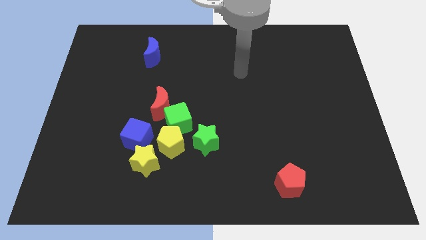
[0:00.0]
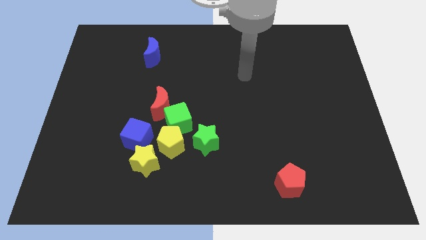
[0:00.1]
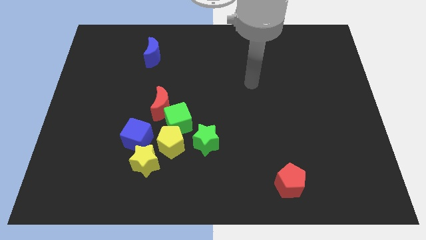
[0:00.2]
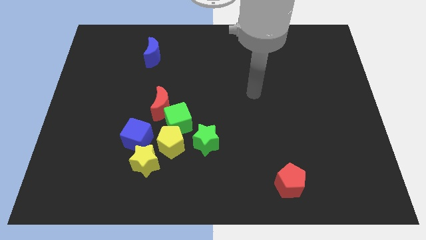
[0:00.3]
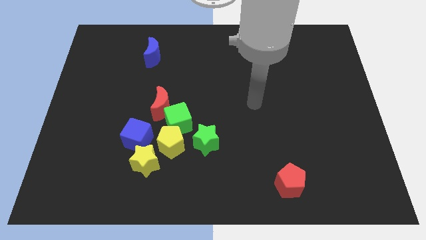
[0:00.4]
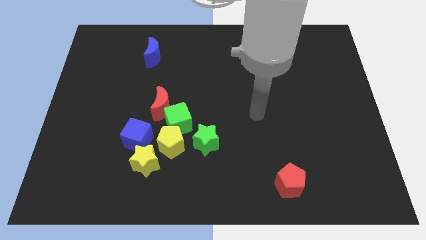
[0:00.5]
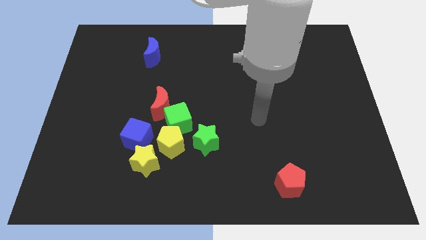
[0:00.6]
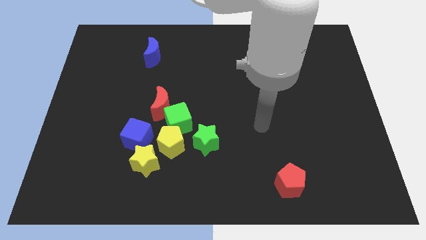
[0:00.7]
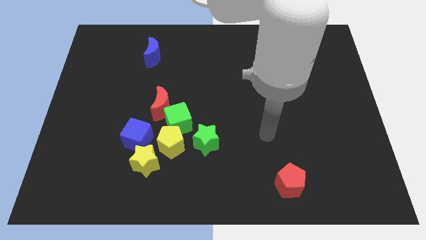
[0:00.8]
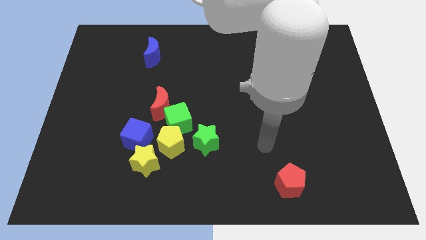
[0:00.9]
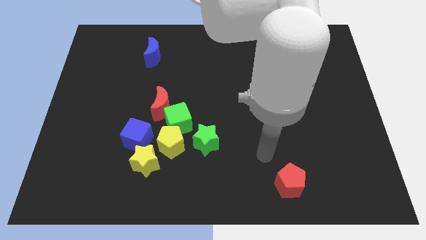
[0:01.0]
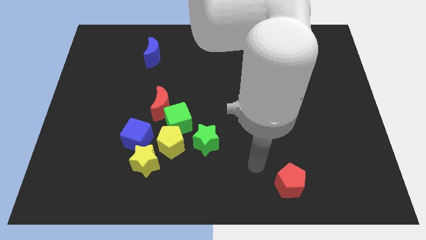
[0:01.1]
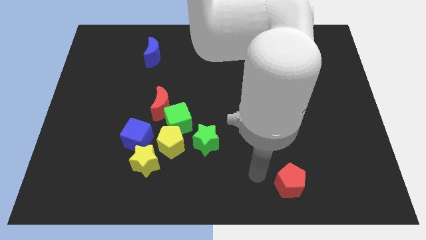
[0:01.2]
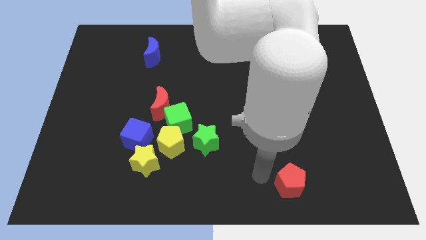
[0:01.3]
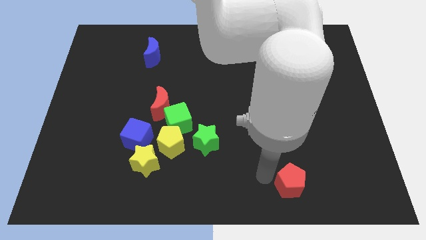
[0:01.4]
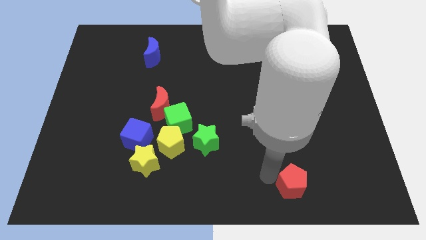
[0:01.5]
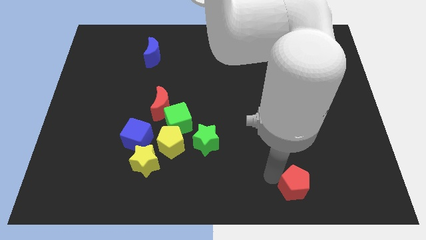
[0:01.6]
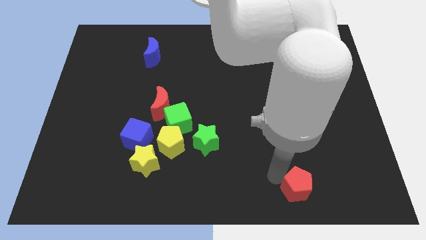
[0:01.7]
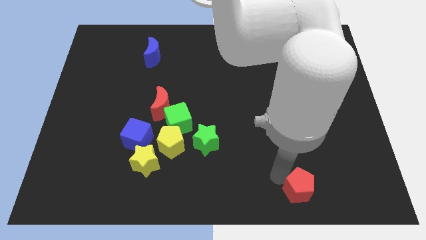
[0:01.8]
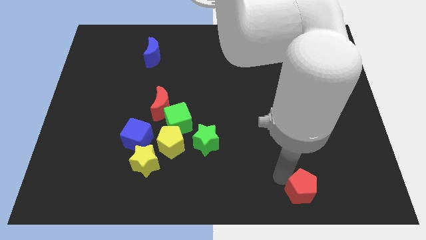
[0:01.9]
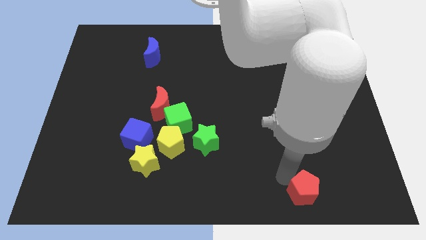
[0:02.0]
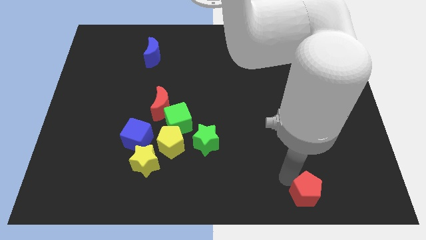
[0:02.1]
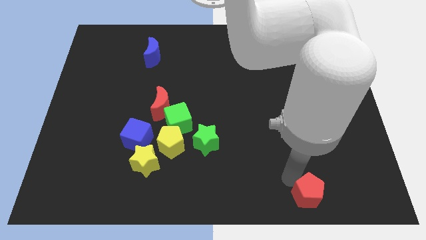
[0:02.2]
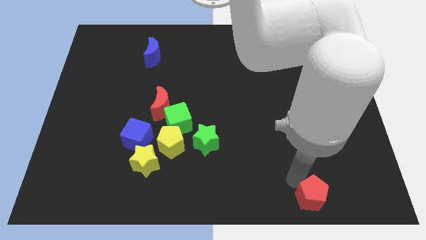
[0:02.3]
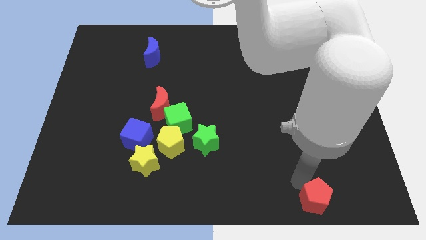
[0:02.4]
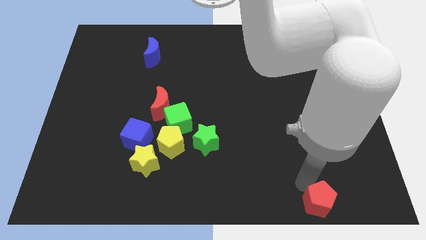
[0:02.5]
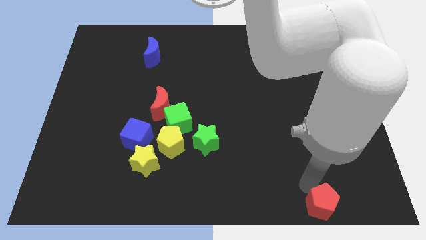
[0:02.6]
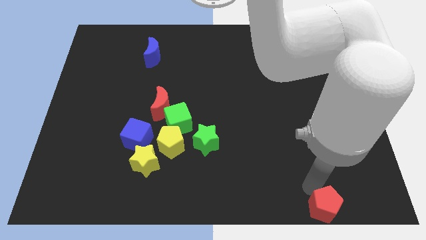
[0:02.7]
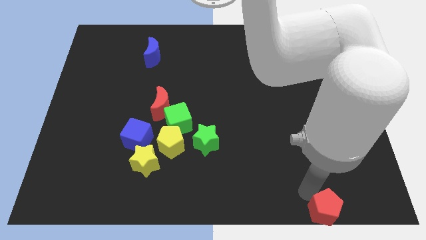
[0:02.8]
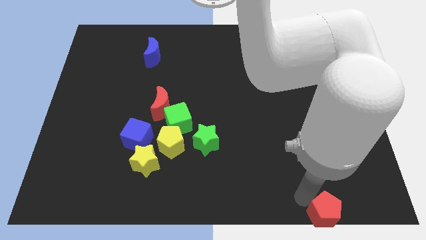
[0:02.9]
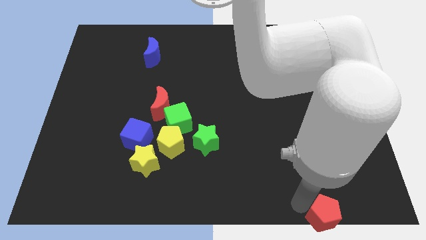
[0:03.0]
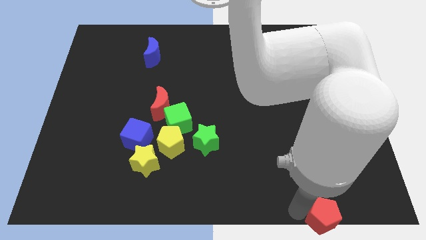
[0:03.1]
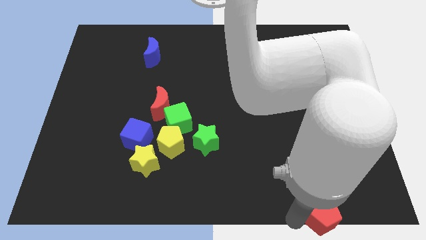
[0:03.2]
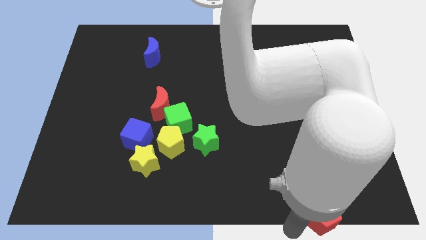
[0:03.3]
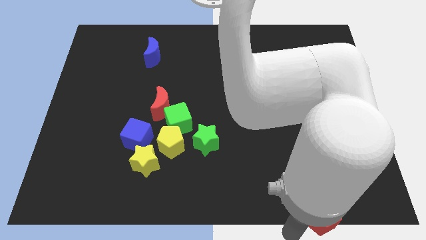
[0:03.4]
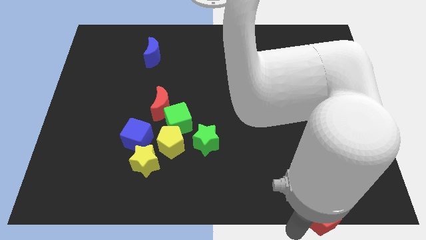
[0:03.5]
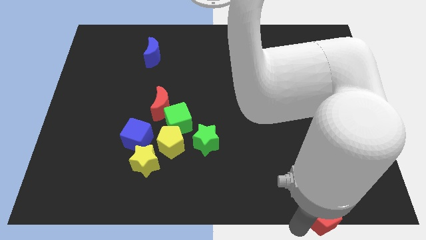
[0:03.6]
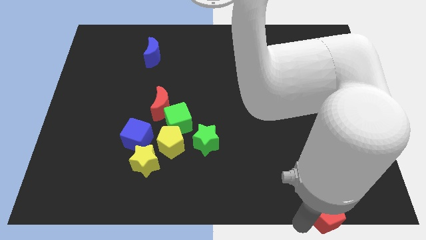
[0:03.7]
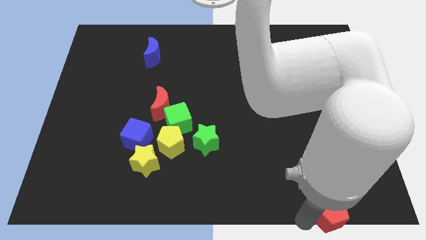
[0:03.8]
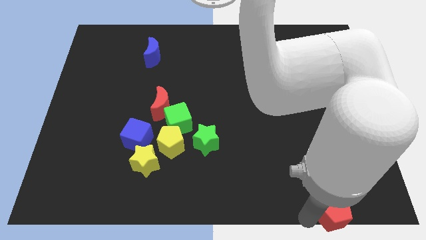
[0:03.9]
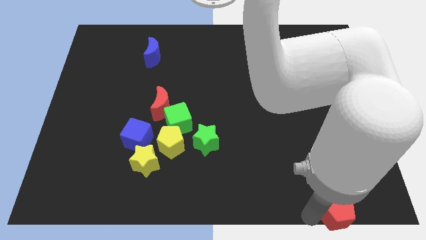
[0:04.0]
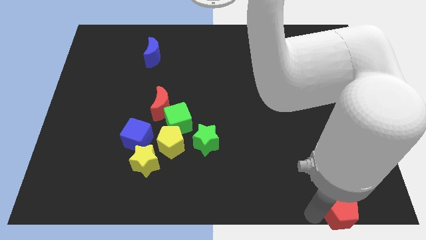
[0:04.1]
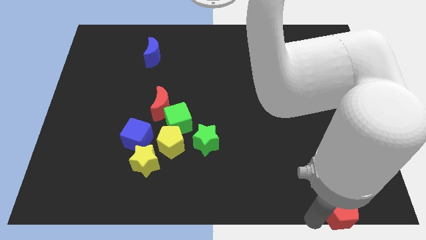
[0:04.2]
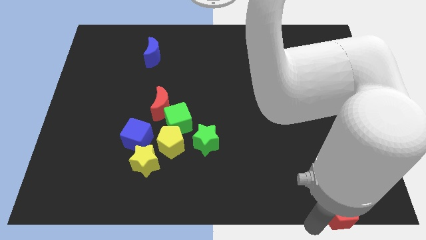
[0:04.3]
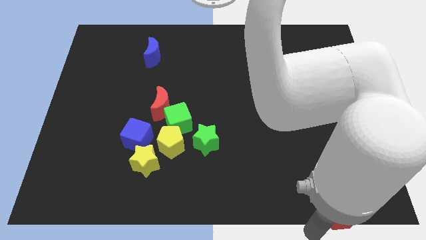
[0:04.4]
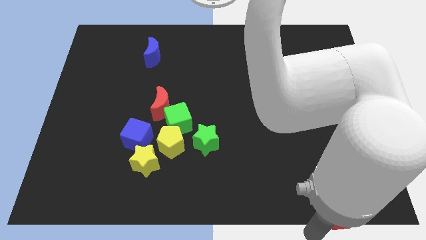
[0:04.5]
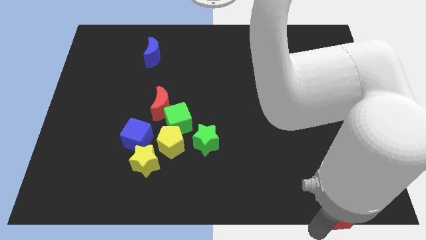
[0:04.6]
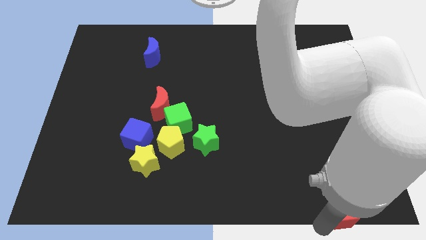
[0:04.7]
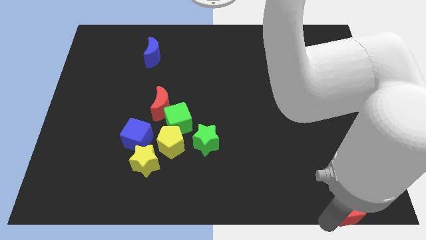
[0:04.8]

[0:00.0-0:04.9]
put the red pentagon to the bottom right of the board

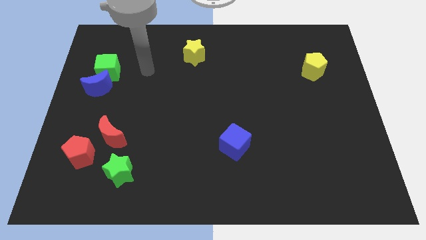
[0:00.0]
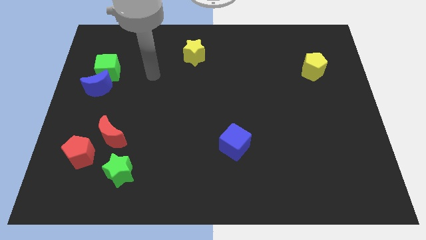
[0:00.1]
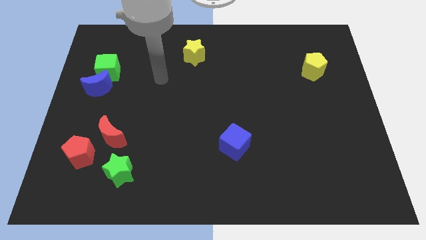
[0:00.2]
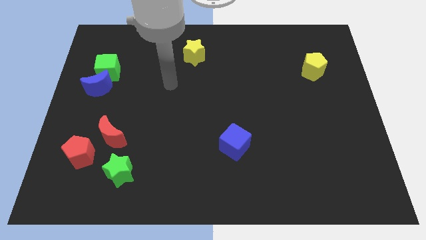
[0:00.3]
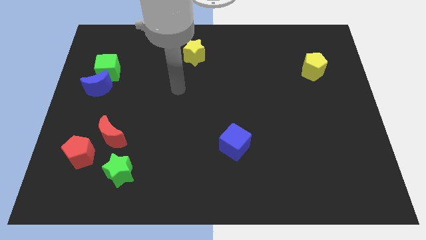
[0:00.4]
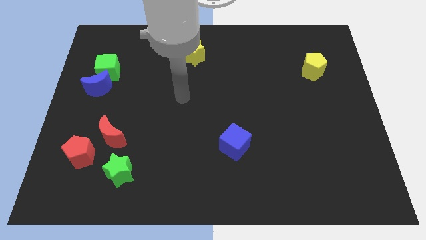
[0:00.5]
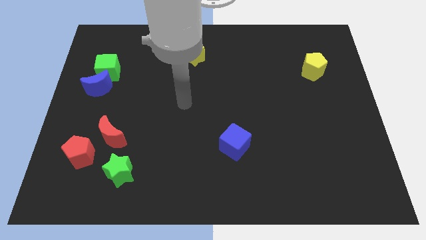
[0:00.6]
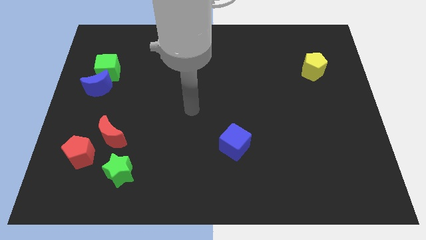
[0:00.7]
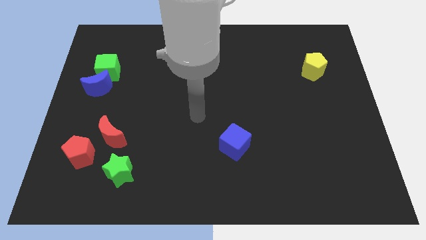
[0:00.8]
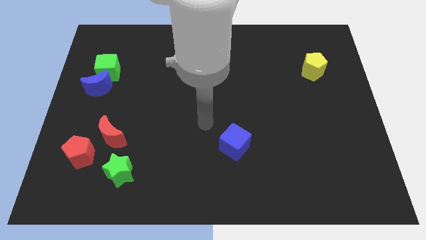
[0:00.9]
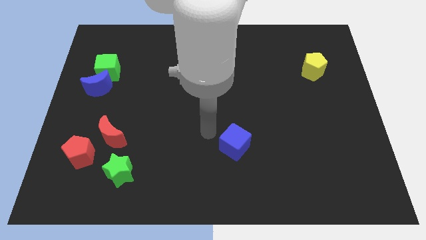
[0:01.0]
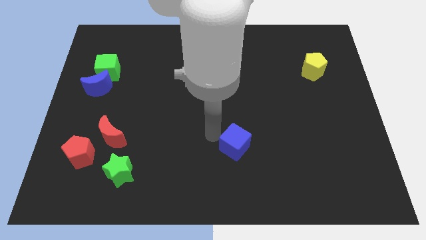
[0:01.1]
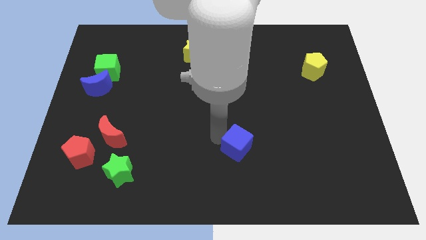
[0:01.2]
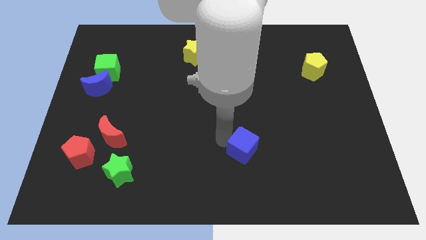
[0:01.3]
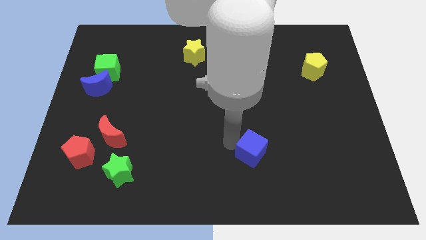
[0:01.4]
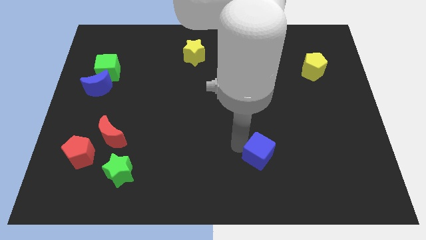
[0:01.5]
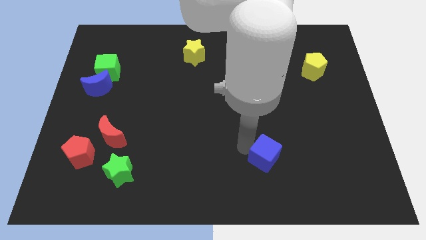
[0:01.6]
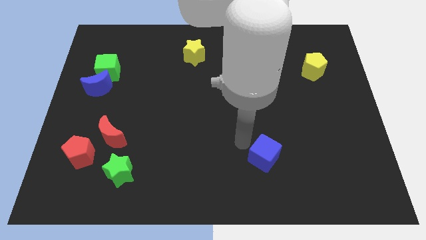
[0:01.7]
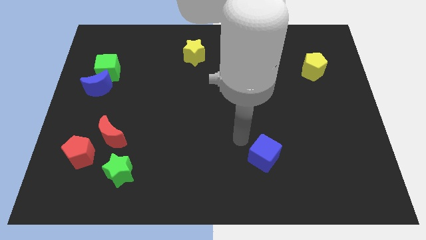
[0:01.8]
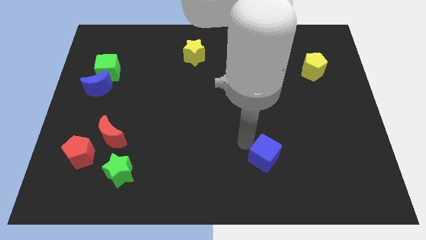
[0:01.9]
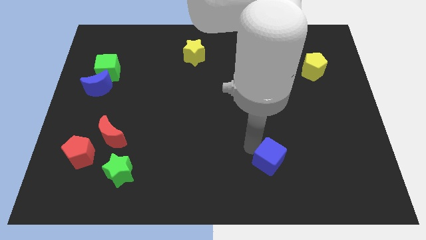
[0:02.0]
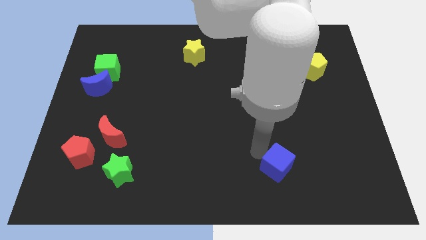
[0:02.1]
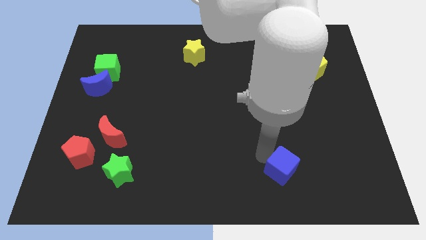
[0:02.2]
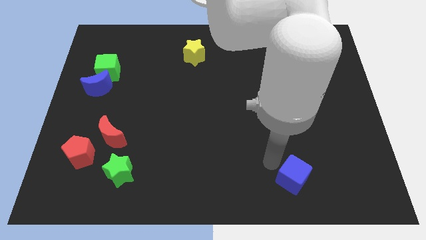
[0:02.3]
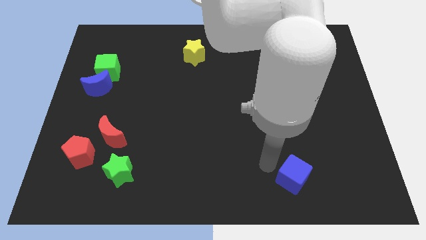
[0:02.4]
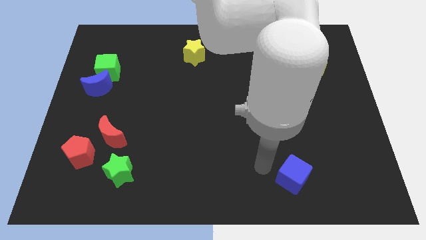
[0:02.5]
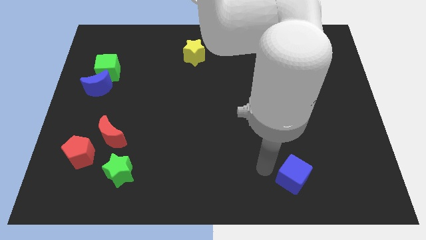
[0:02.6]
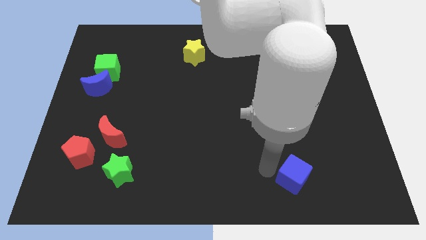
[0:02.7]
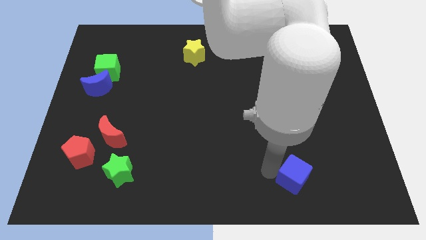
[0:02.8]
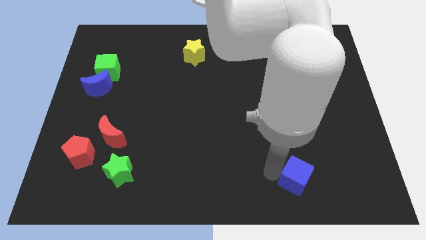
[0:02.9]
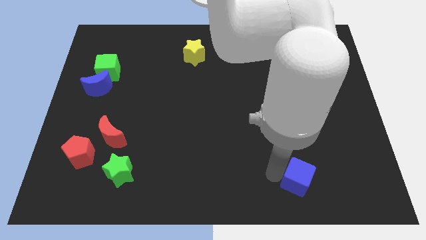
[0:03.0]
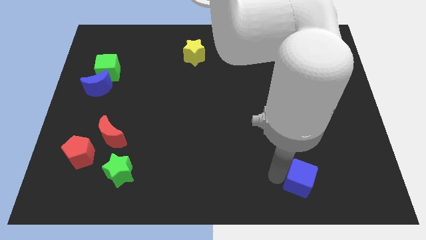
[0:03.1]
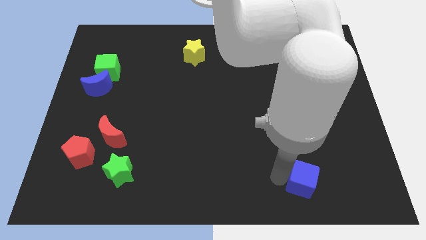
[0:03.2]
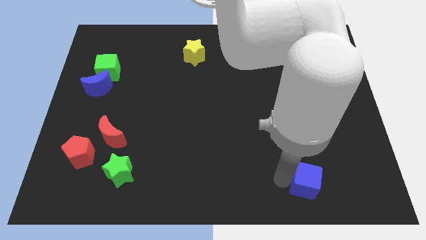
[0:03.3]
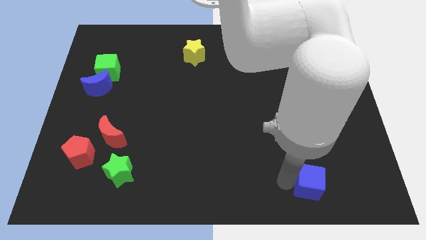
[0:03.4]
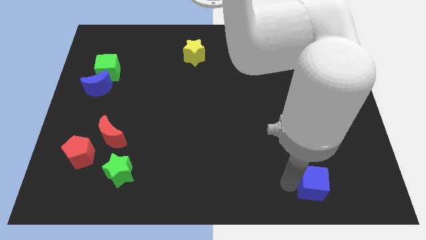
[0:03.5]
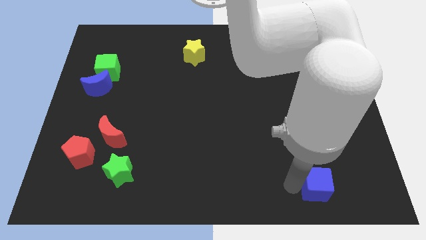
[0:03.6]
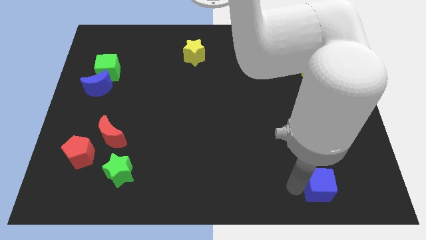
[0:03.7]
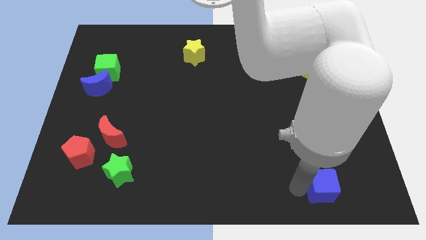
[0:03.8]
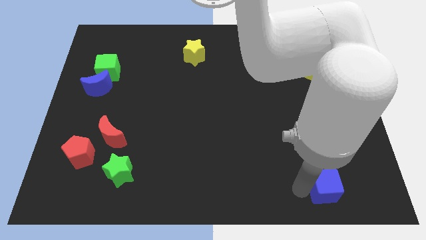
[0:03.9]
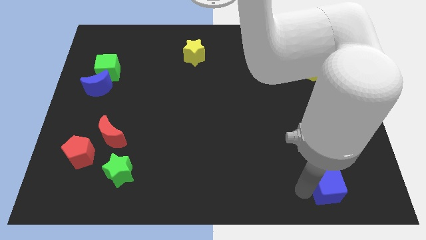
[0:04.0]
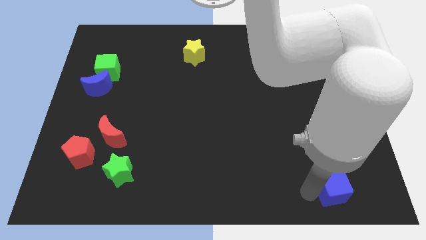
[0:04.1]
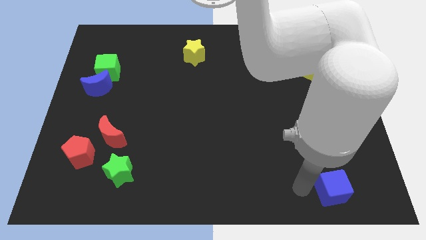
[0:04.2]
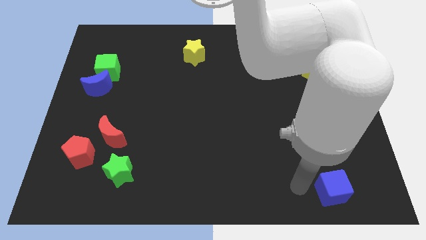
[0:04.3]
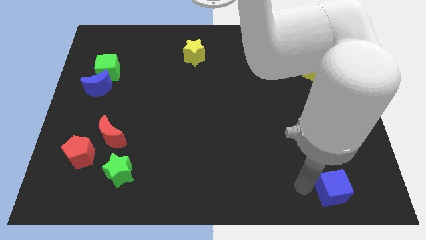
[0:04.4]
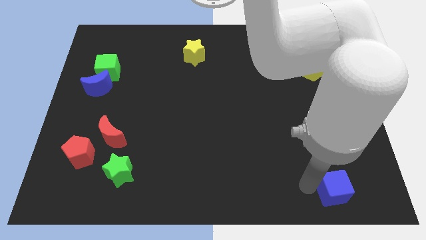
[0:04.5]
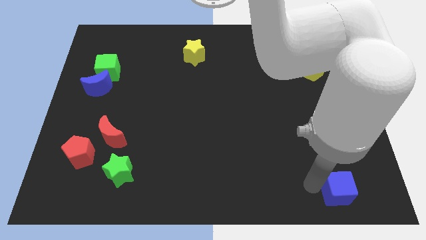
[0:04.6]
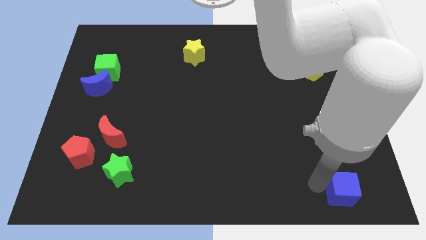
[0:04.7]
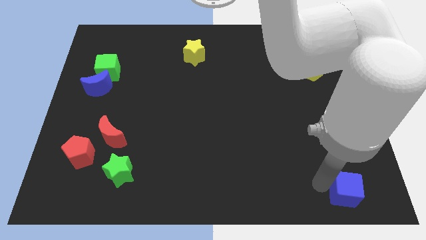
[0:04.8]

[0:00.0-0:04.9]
put the blue cube to the bottom right of the board
